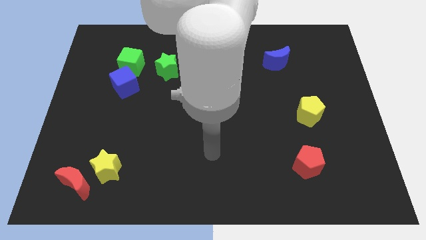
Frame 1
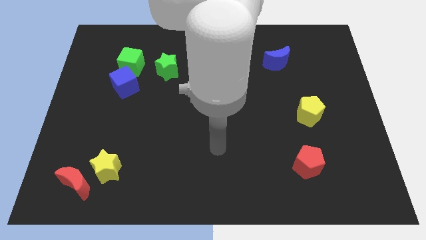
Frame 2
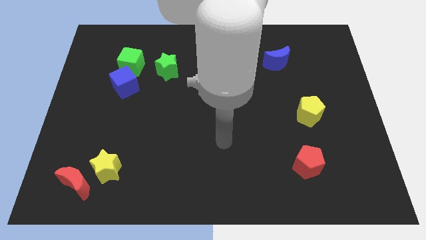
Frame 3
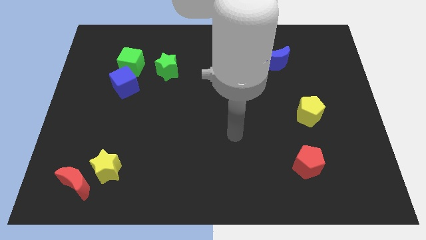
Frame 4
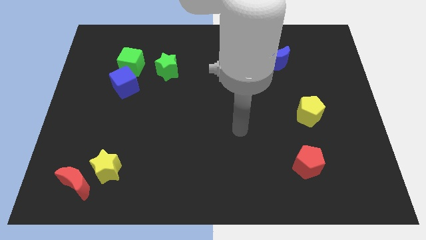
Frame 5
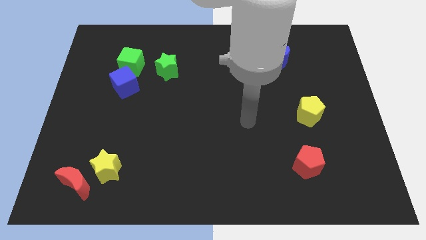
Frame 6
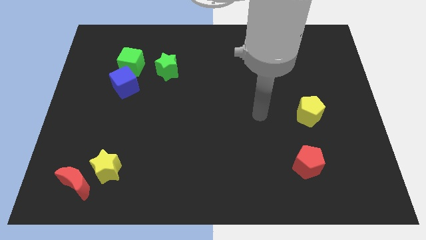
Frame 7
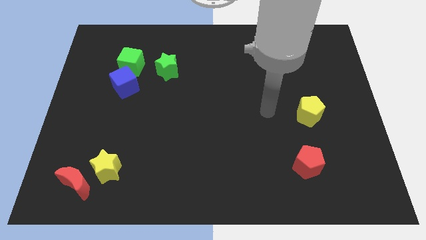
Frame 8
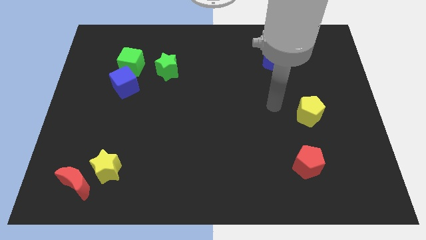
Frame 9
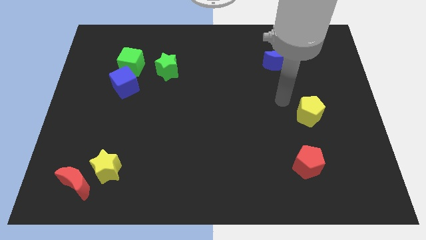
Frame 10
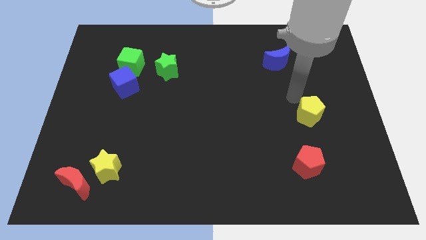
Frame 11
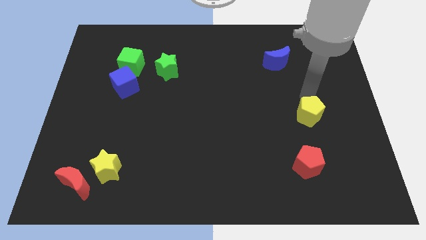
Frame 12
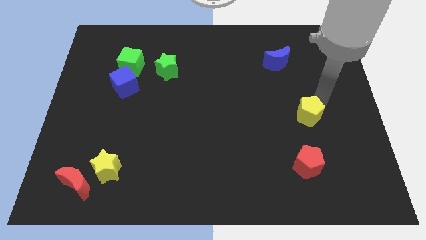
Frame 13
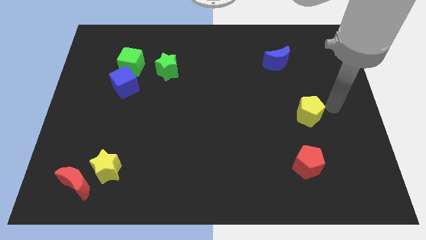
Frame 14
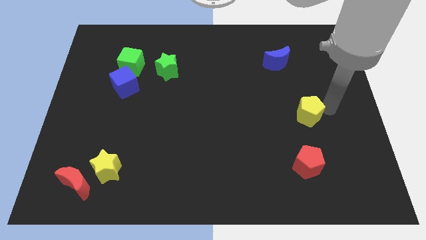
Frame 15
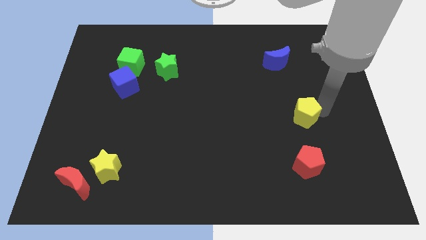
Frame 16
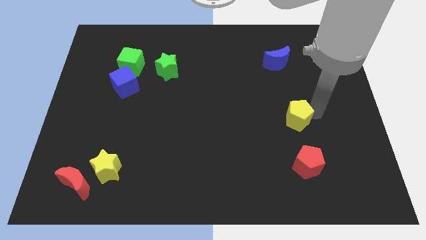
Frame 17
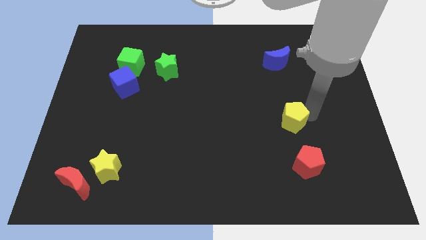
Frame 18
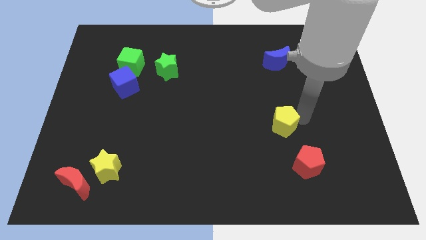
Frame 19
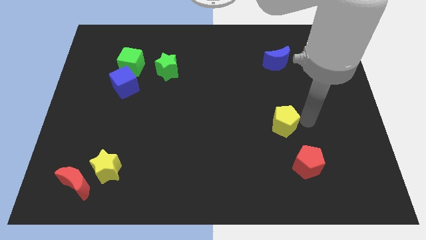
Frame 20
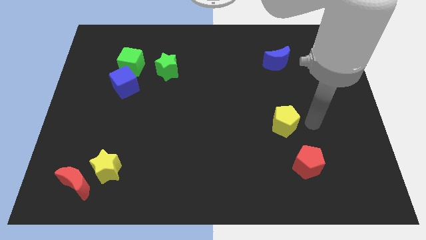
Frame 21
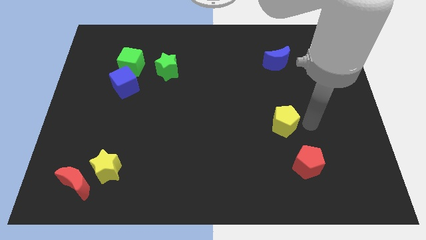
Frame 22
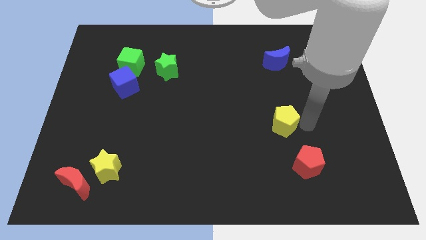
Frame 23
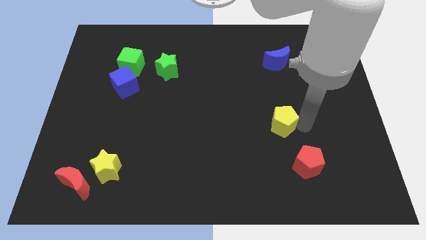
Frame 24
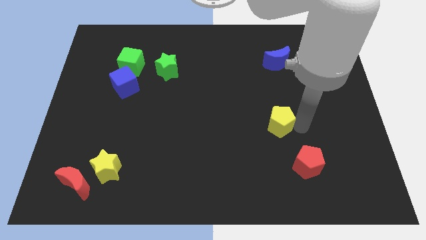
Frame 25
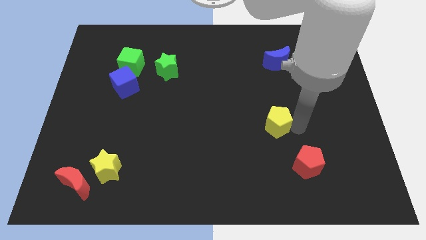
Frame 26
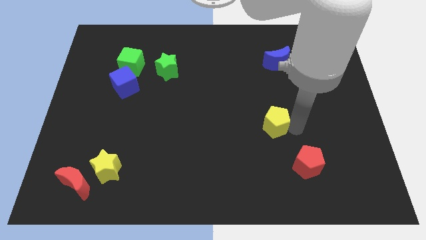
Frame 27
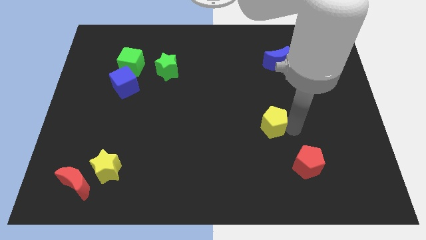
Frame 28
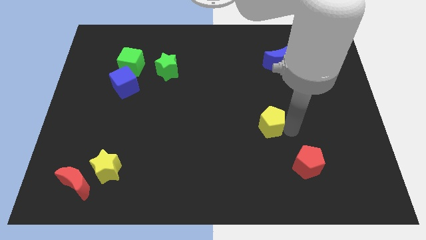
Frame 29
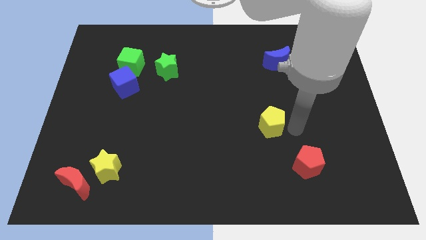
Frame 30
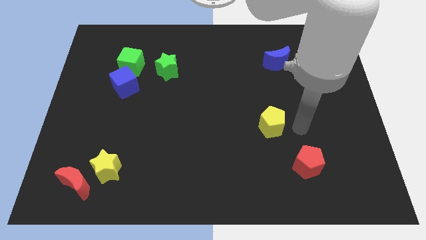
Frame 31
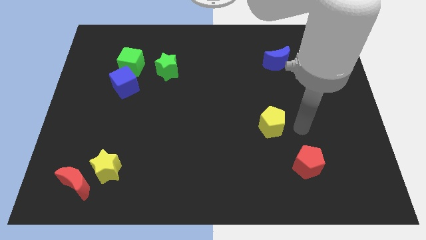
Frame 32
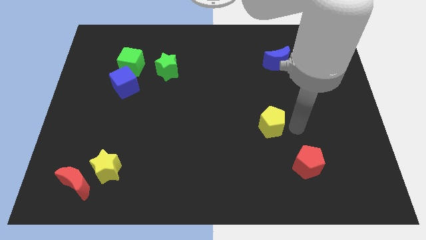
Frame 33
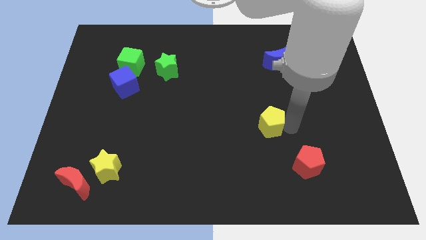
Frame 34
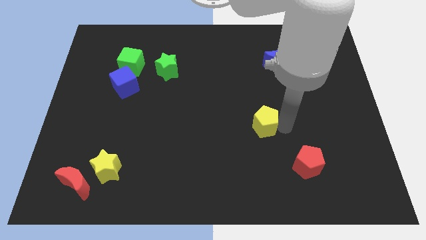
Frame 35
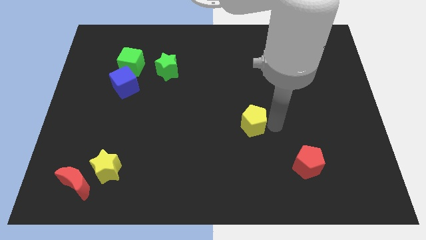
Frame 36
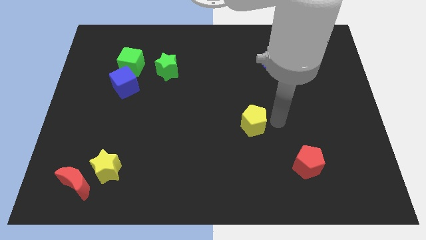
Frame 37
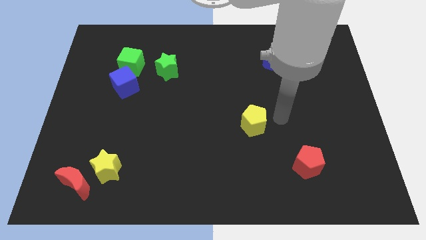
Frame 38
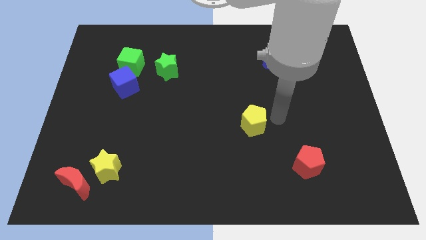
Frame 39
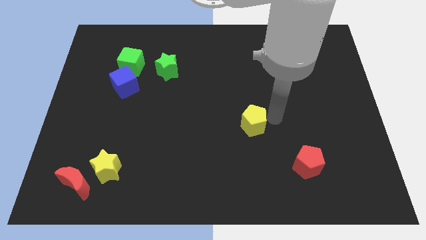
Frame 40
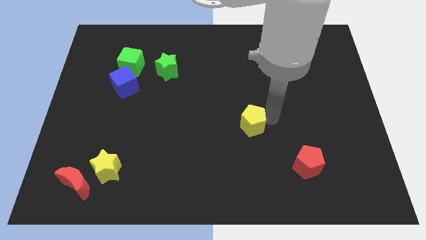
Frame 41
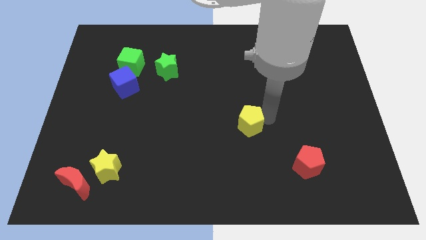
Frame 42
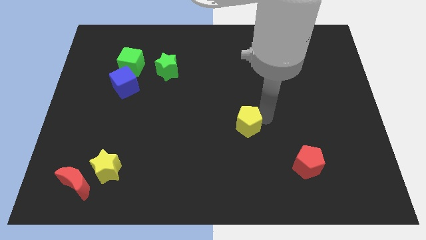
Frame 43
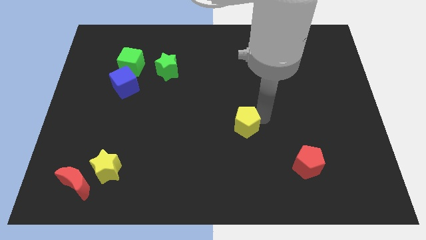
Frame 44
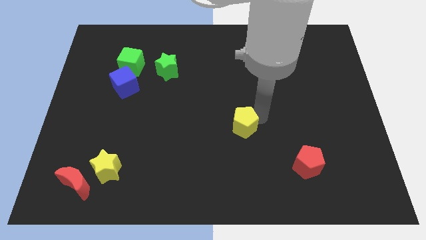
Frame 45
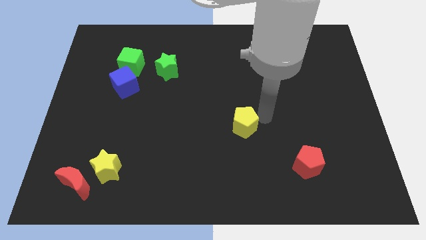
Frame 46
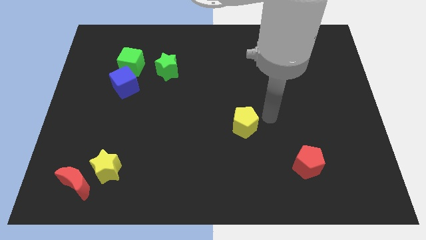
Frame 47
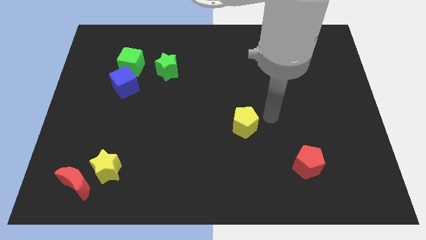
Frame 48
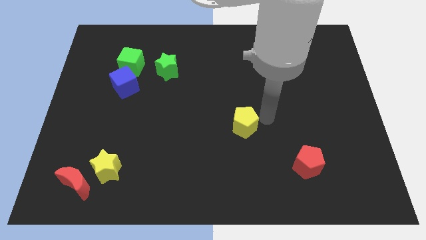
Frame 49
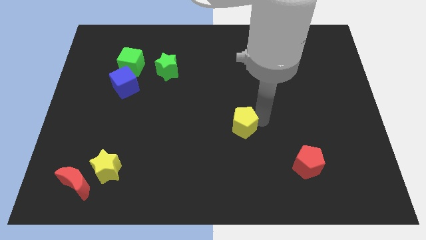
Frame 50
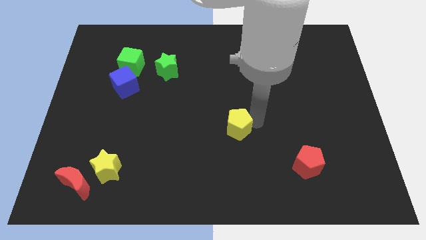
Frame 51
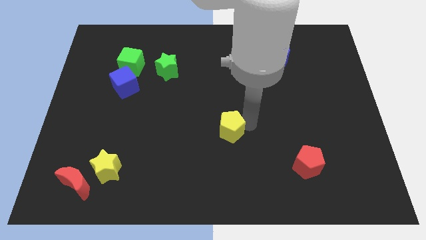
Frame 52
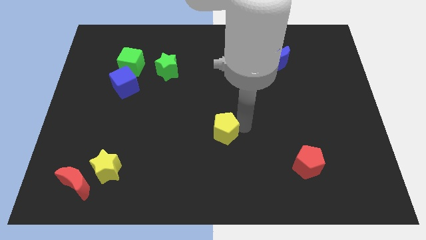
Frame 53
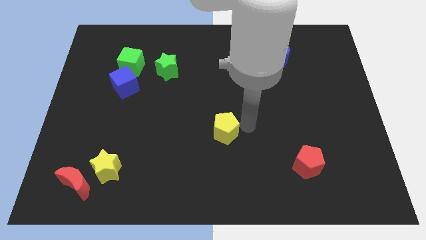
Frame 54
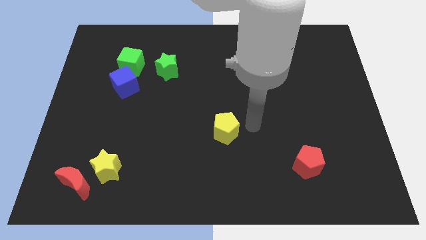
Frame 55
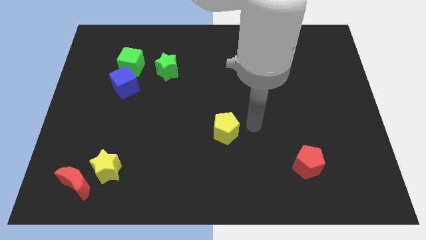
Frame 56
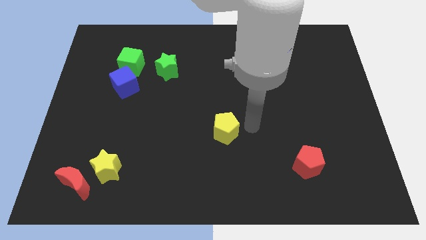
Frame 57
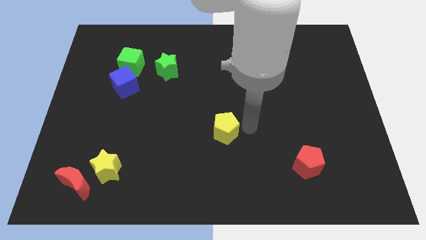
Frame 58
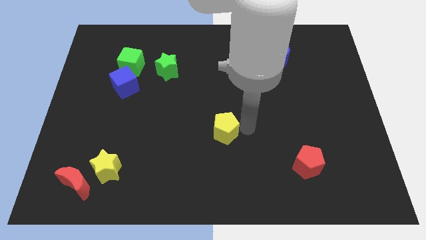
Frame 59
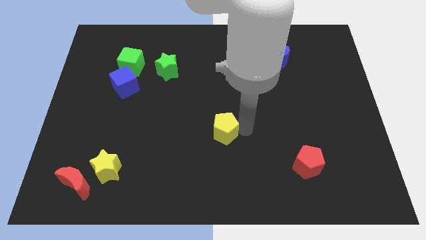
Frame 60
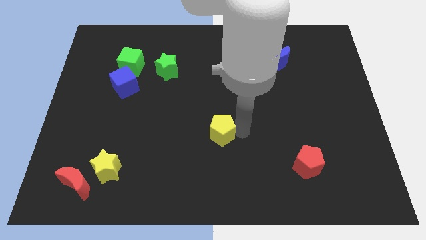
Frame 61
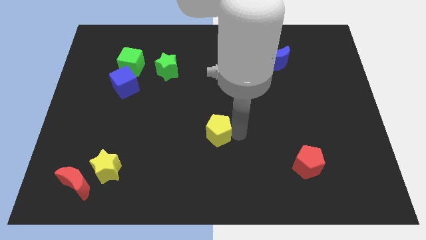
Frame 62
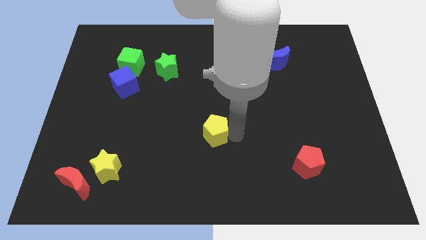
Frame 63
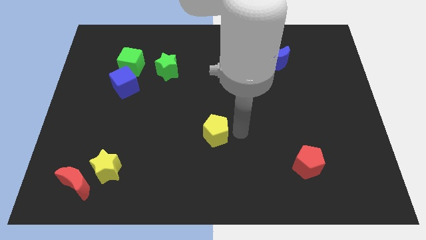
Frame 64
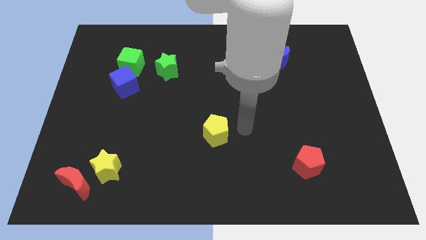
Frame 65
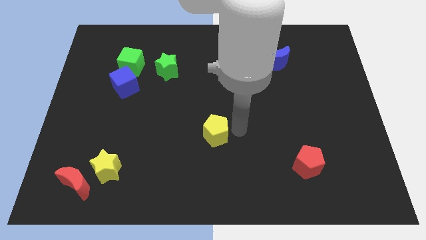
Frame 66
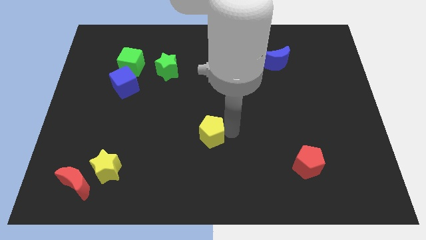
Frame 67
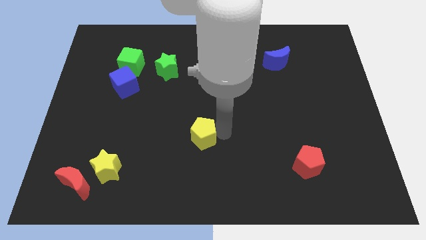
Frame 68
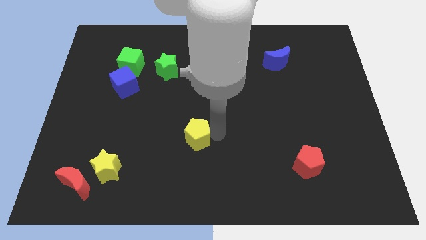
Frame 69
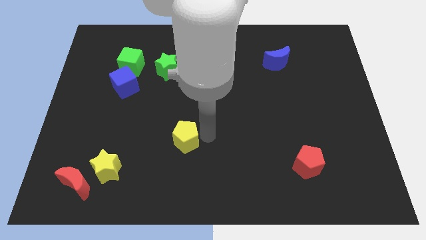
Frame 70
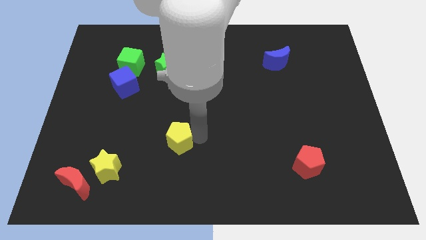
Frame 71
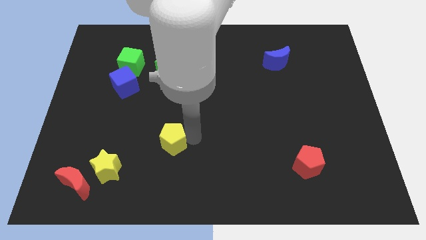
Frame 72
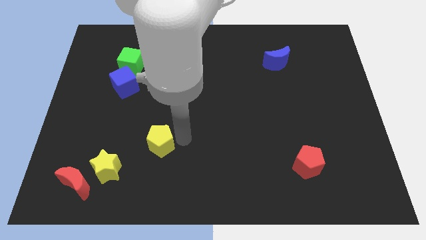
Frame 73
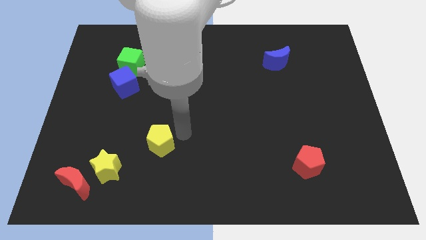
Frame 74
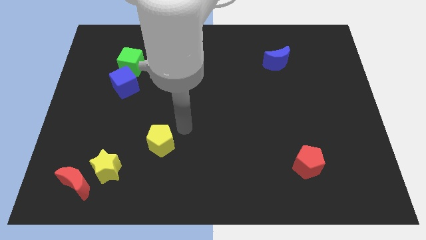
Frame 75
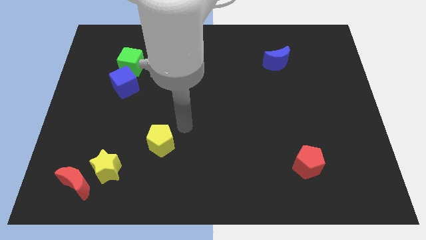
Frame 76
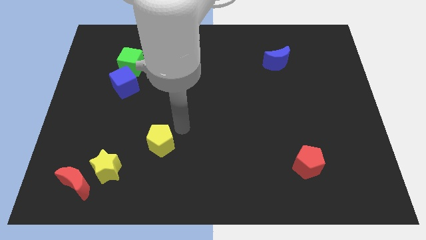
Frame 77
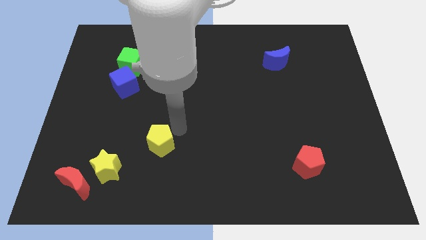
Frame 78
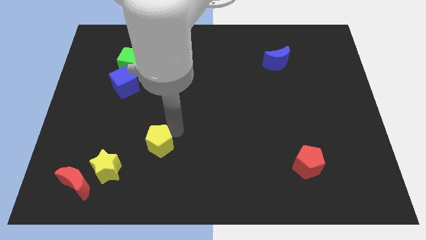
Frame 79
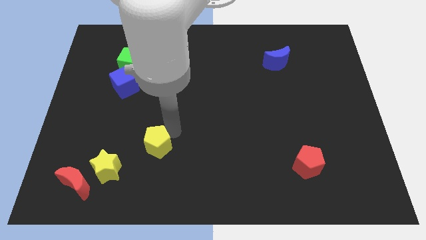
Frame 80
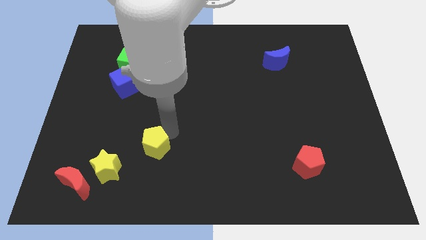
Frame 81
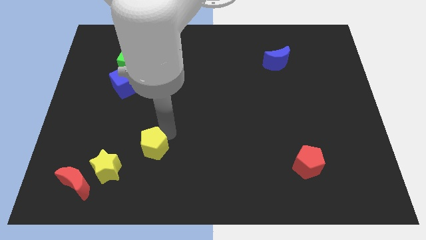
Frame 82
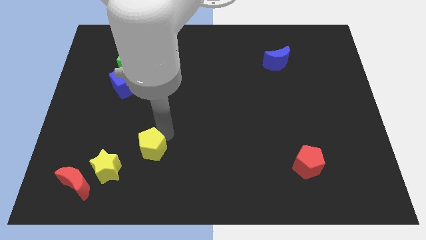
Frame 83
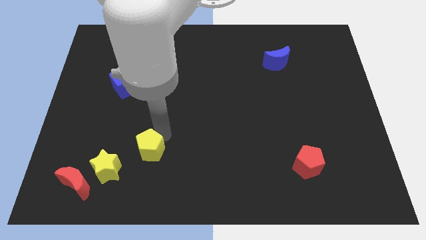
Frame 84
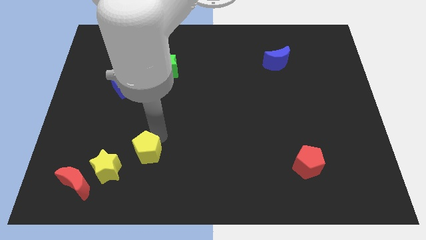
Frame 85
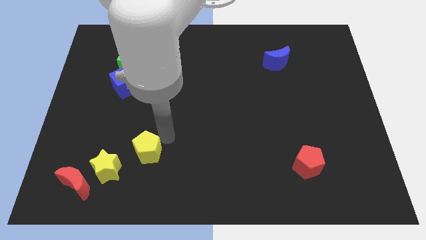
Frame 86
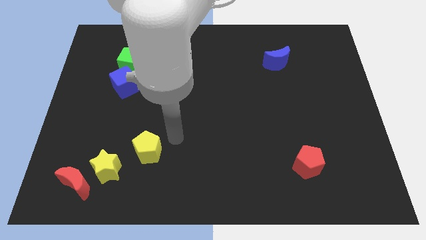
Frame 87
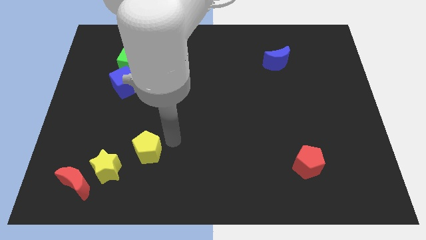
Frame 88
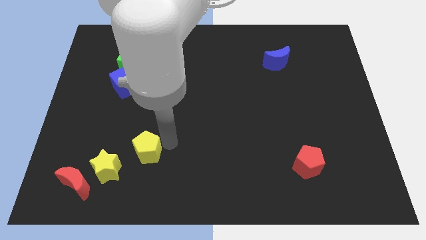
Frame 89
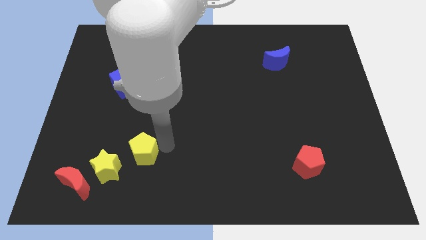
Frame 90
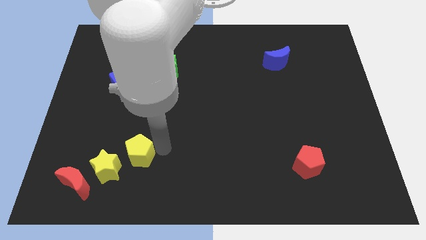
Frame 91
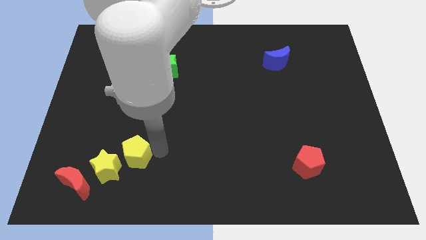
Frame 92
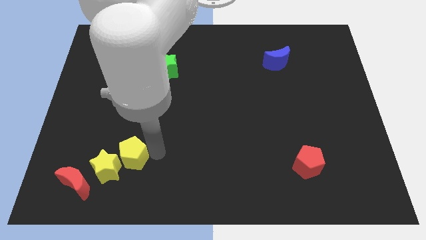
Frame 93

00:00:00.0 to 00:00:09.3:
push the yellow pentagon to the yellow star
